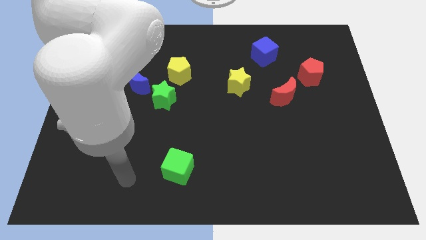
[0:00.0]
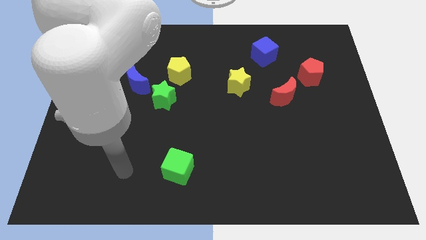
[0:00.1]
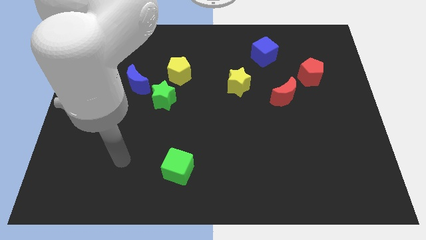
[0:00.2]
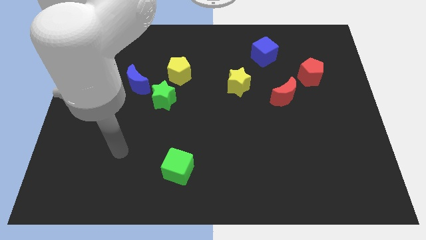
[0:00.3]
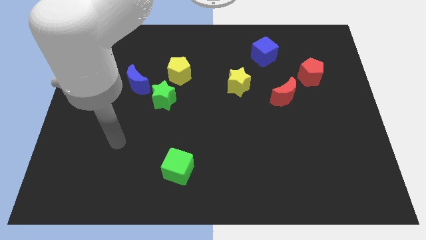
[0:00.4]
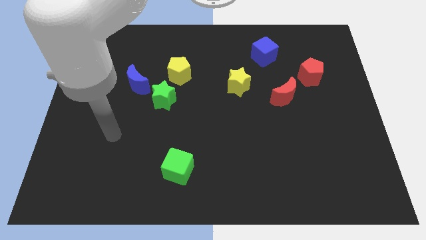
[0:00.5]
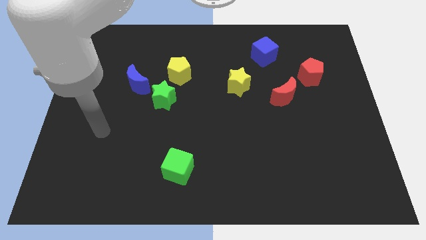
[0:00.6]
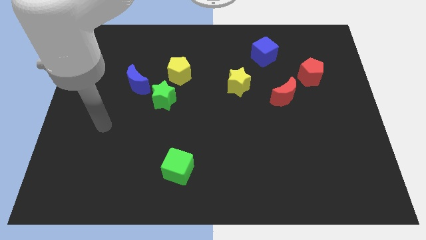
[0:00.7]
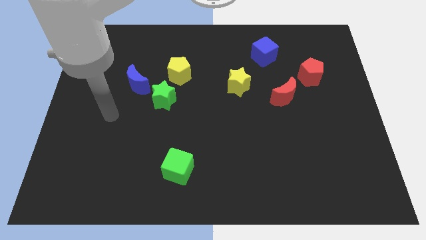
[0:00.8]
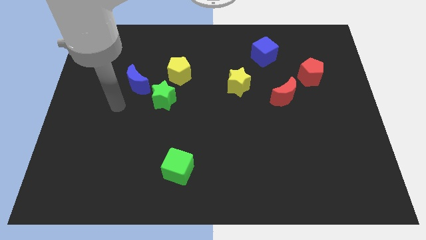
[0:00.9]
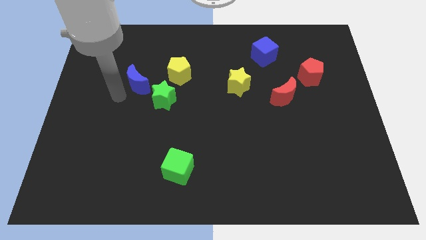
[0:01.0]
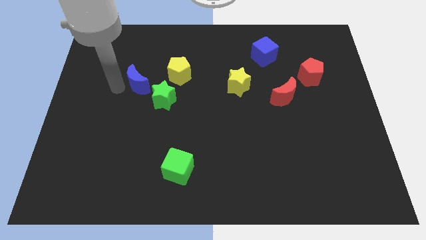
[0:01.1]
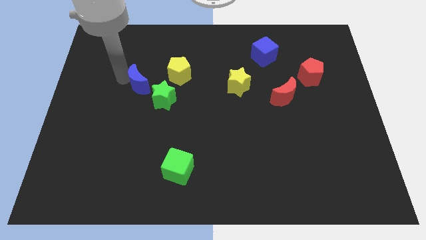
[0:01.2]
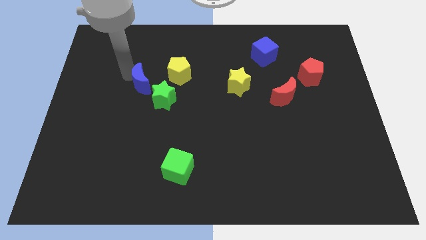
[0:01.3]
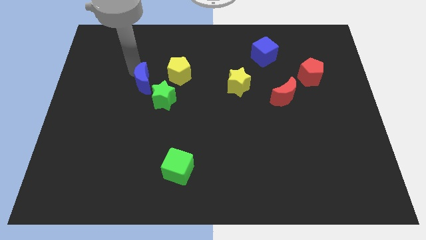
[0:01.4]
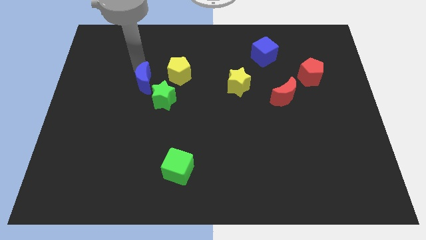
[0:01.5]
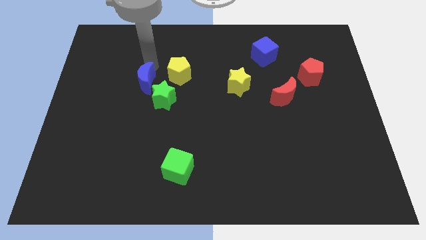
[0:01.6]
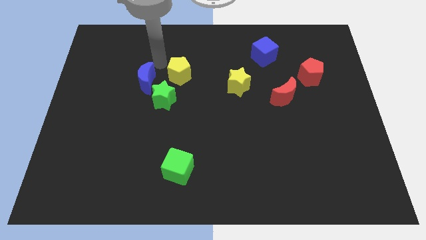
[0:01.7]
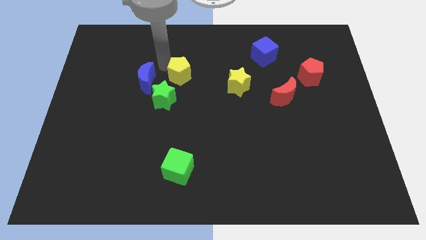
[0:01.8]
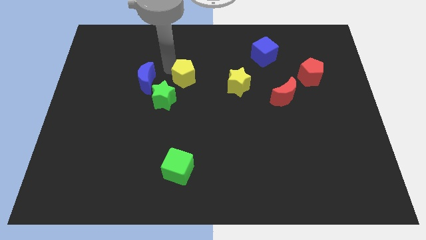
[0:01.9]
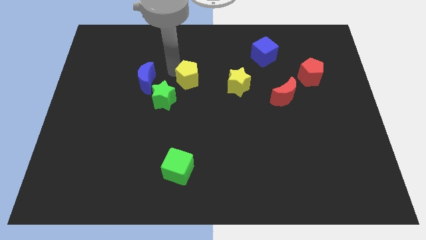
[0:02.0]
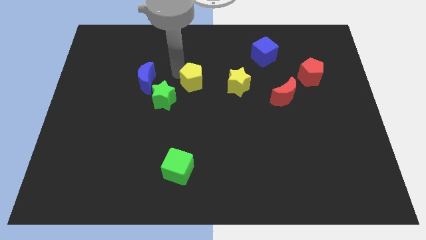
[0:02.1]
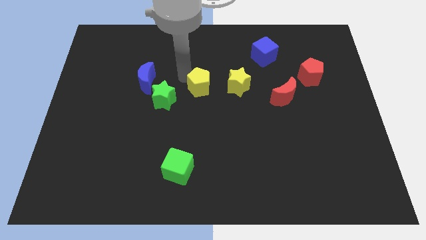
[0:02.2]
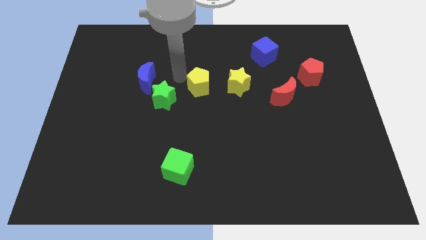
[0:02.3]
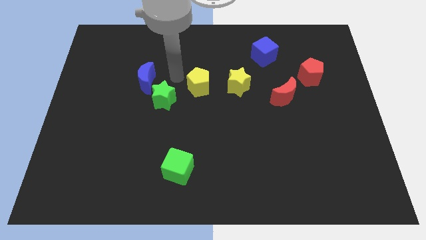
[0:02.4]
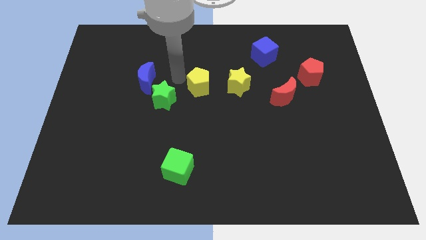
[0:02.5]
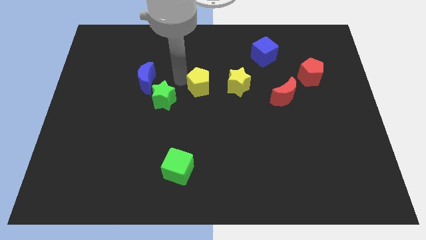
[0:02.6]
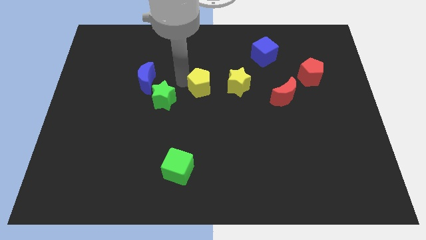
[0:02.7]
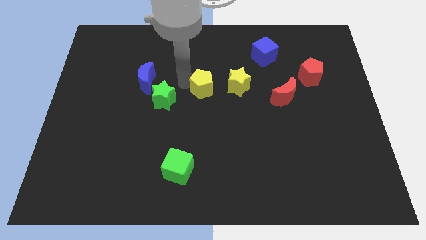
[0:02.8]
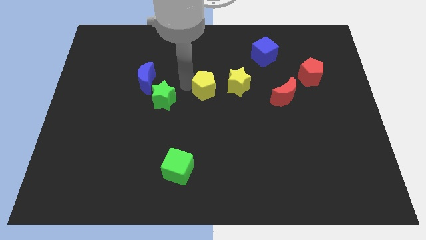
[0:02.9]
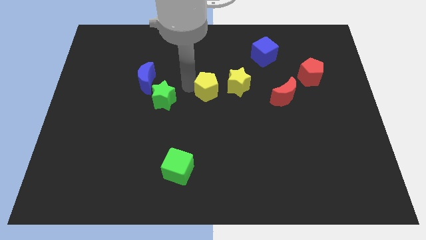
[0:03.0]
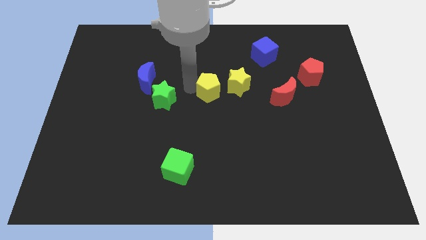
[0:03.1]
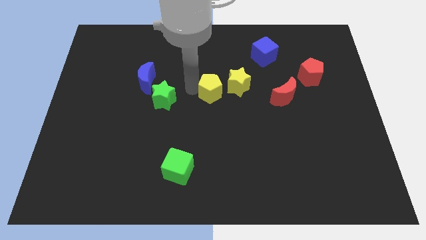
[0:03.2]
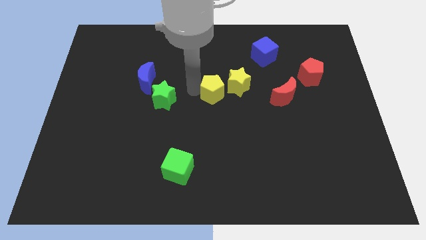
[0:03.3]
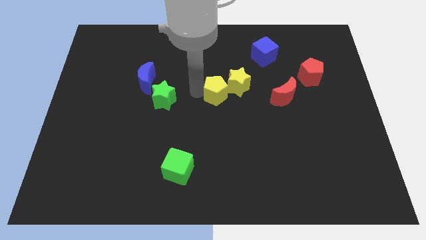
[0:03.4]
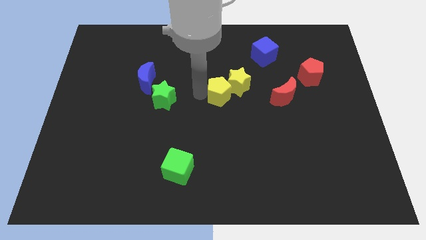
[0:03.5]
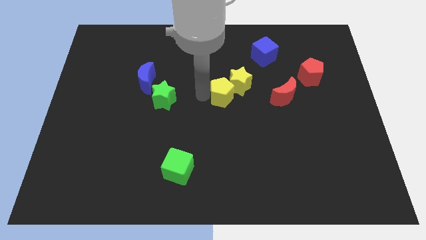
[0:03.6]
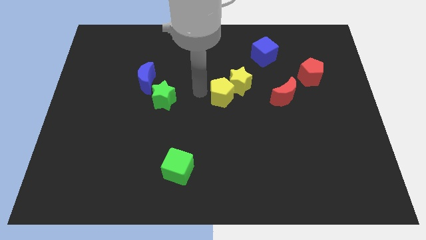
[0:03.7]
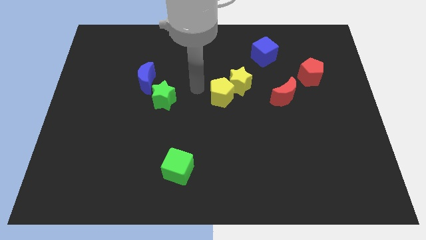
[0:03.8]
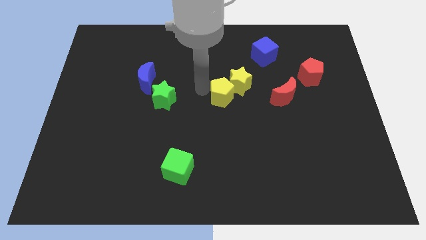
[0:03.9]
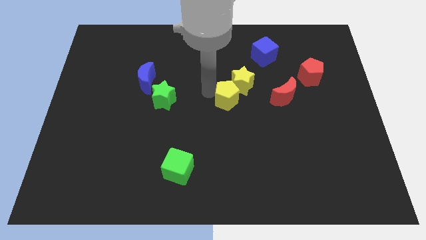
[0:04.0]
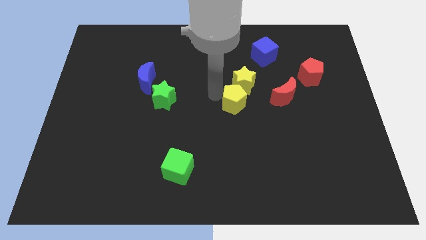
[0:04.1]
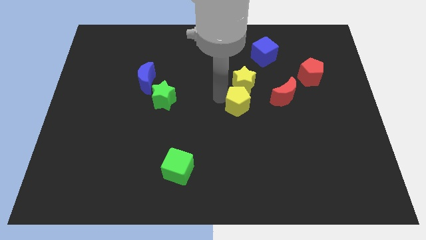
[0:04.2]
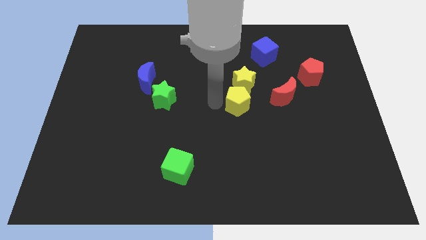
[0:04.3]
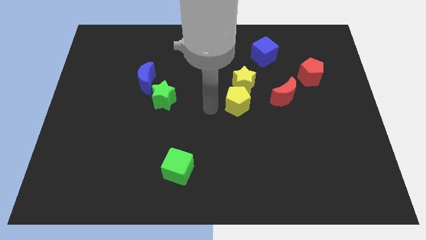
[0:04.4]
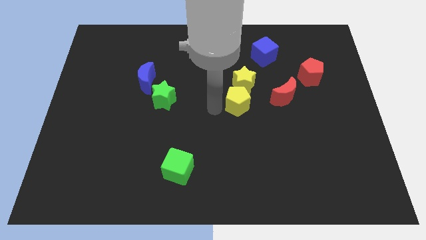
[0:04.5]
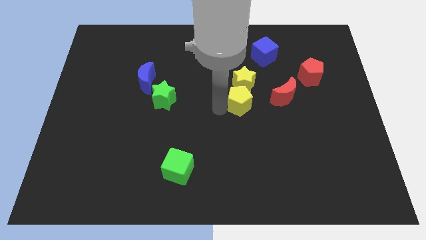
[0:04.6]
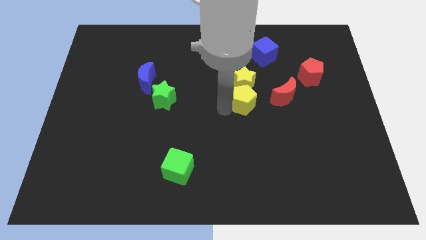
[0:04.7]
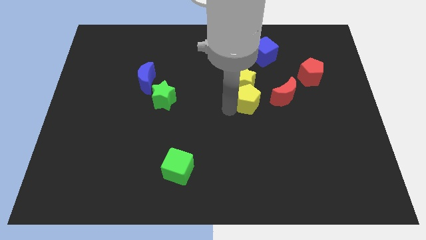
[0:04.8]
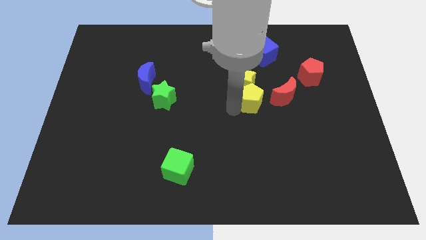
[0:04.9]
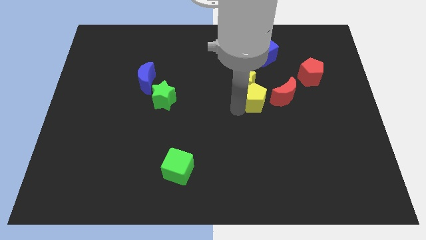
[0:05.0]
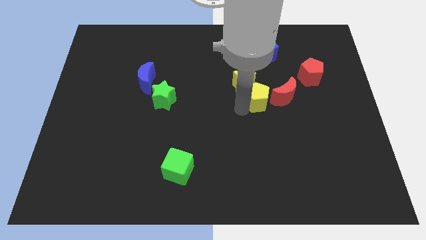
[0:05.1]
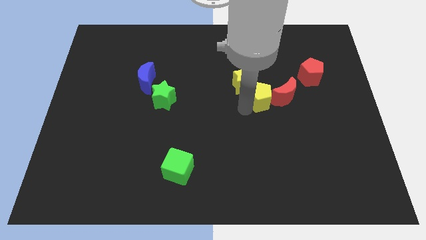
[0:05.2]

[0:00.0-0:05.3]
put the yellow pentagon to the red moon

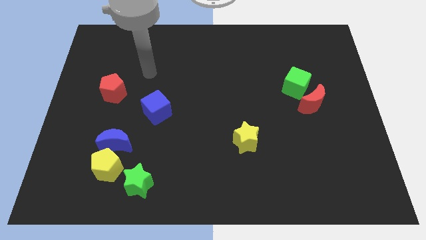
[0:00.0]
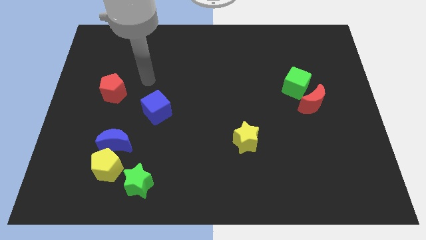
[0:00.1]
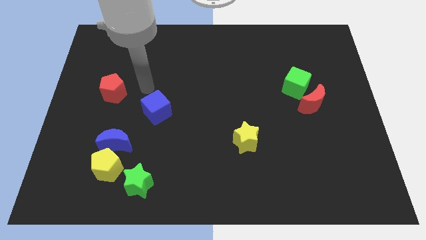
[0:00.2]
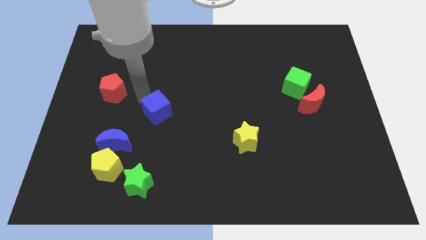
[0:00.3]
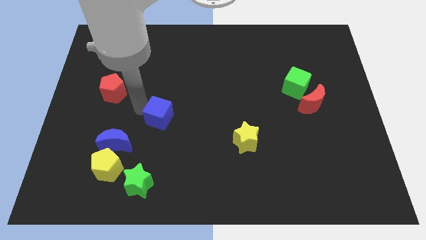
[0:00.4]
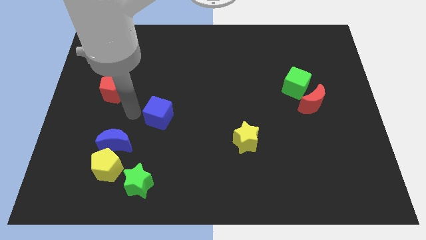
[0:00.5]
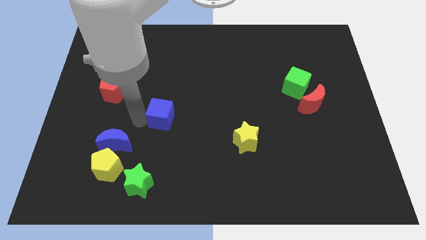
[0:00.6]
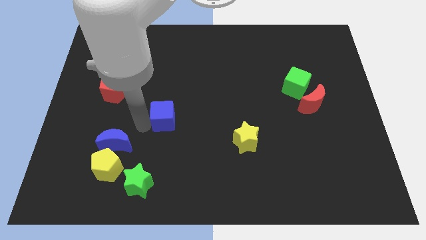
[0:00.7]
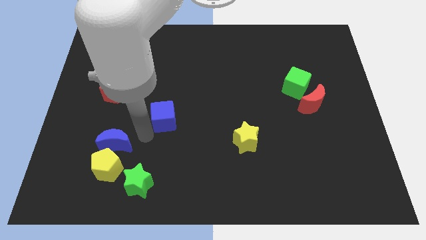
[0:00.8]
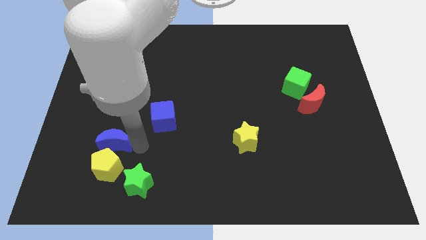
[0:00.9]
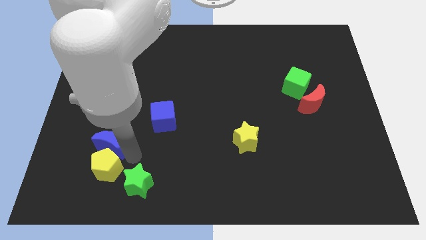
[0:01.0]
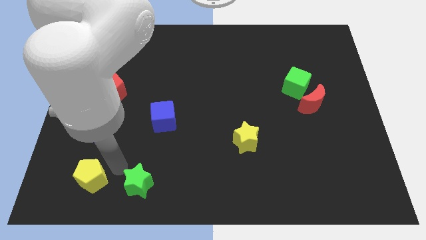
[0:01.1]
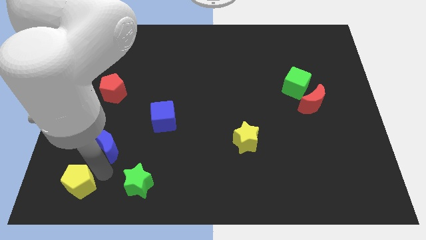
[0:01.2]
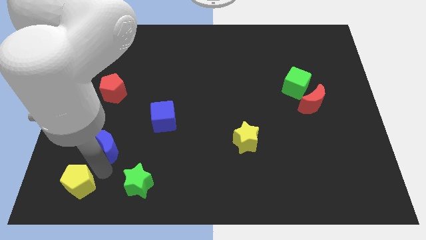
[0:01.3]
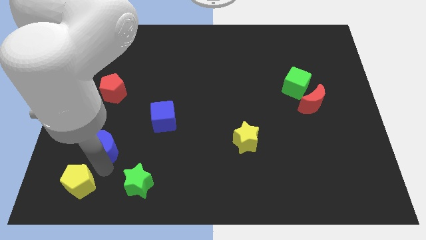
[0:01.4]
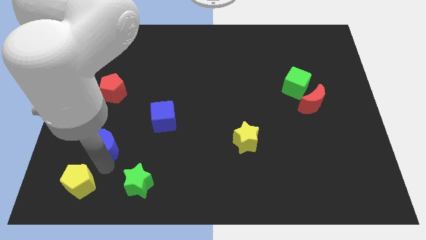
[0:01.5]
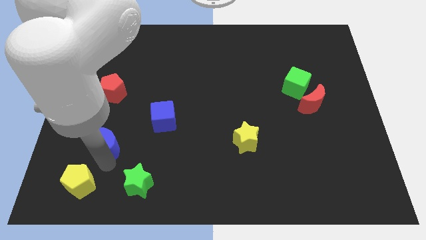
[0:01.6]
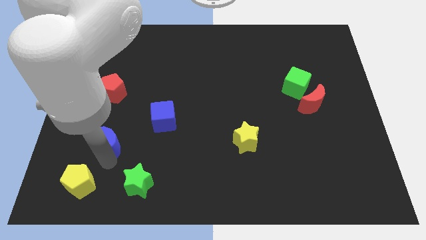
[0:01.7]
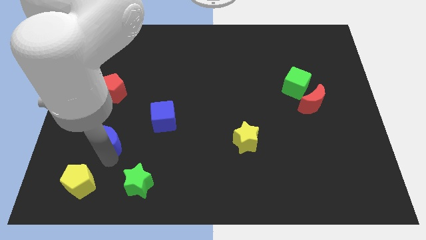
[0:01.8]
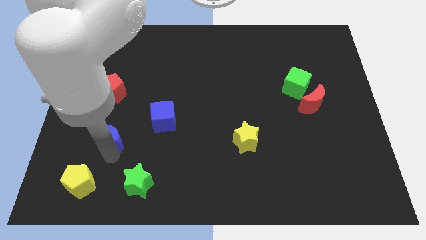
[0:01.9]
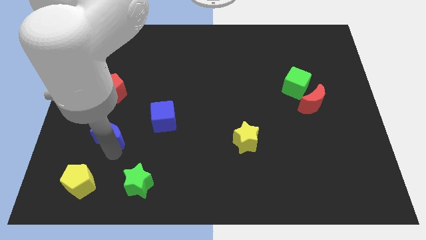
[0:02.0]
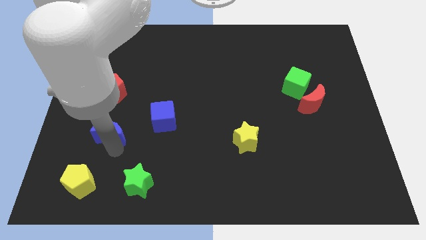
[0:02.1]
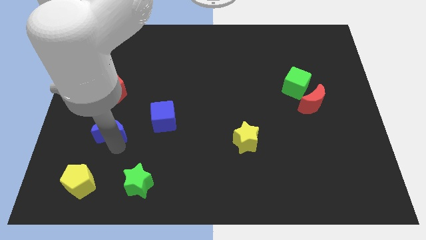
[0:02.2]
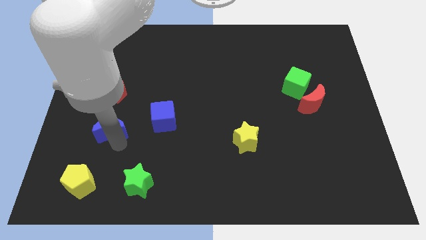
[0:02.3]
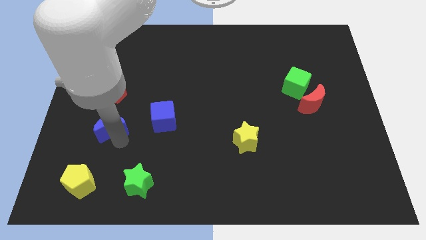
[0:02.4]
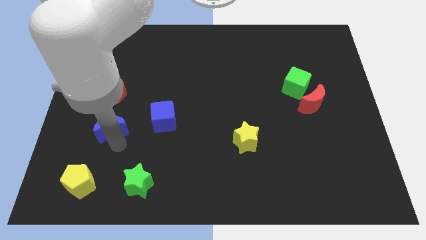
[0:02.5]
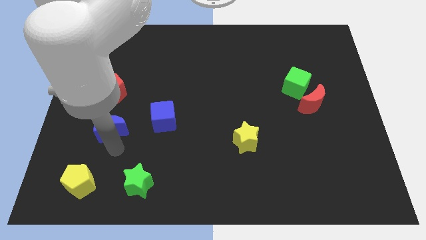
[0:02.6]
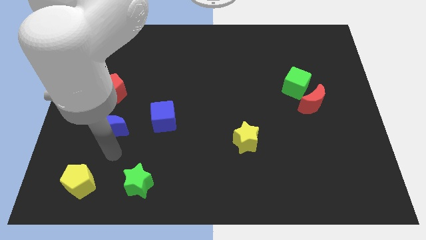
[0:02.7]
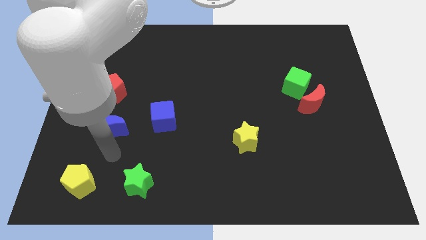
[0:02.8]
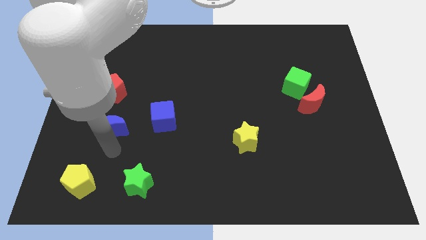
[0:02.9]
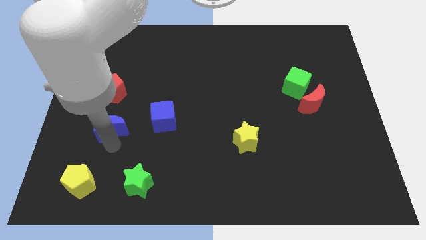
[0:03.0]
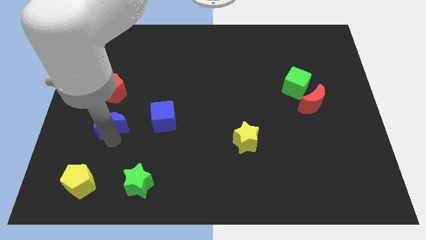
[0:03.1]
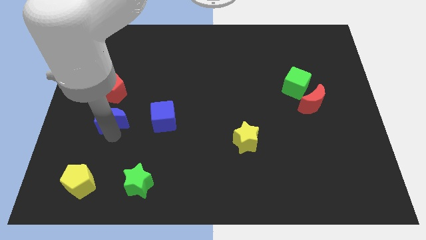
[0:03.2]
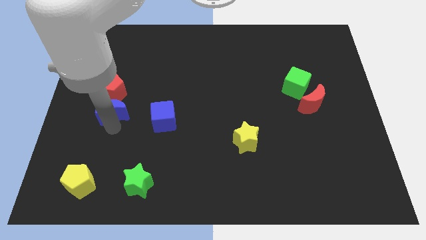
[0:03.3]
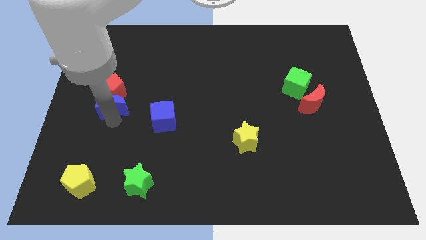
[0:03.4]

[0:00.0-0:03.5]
put the blue moon towards the red pentagon
